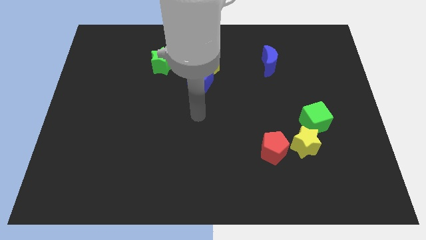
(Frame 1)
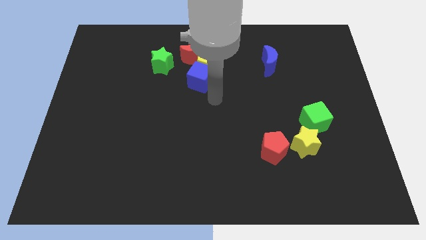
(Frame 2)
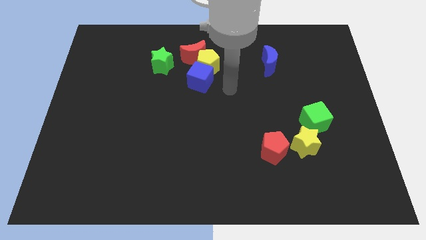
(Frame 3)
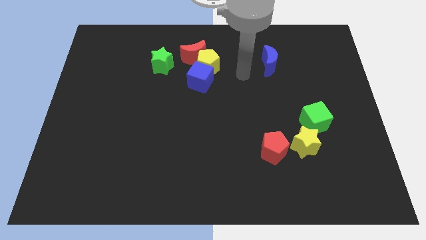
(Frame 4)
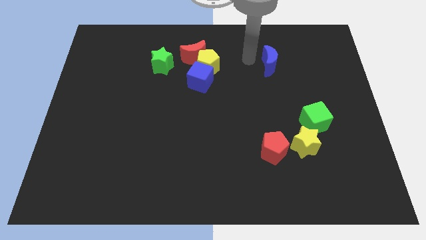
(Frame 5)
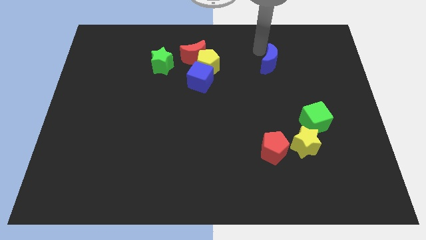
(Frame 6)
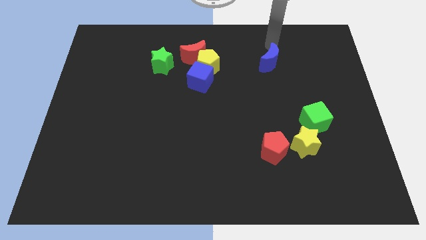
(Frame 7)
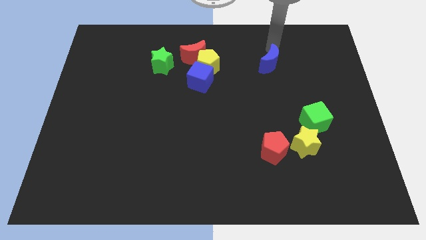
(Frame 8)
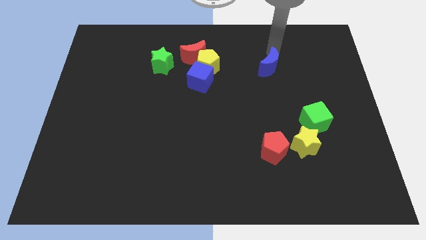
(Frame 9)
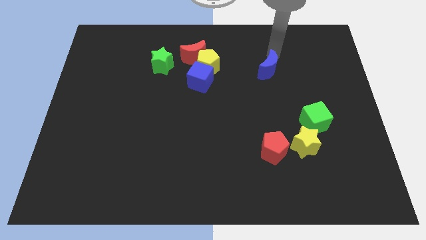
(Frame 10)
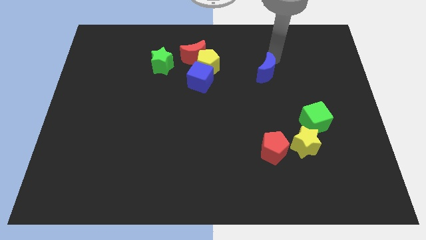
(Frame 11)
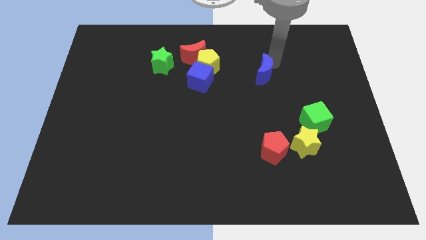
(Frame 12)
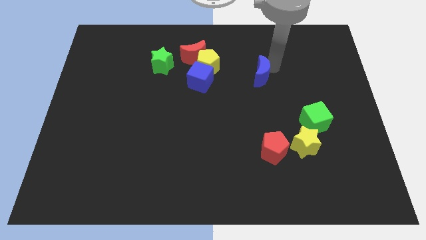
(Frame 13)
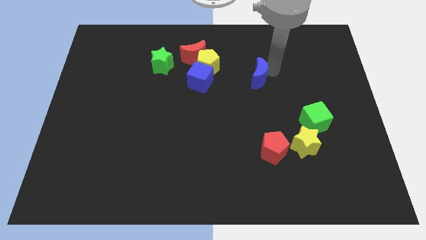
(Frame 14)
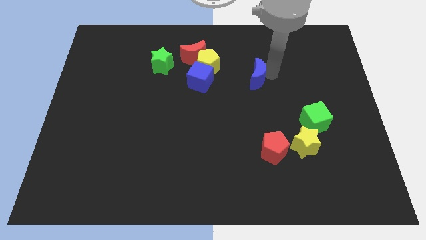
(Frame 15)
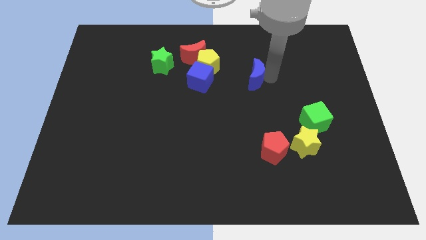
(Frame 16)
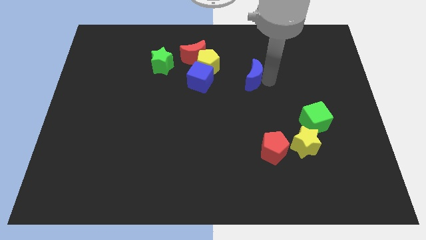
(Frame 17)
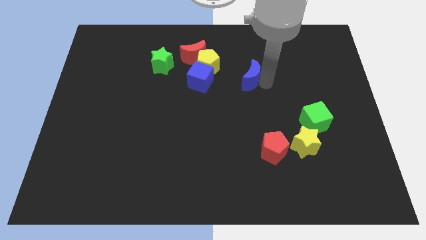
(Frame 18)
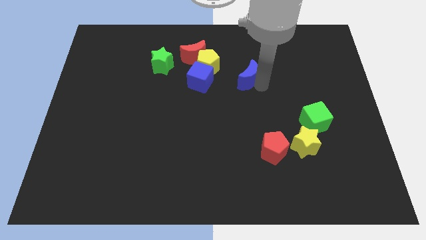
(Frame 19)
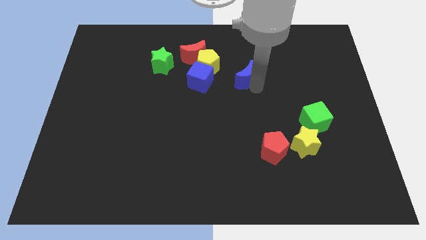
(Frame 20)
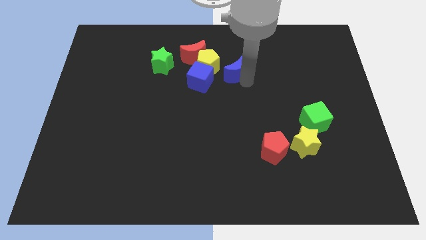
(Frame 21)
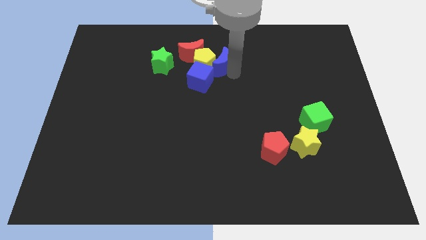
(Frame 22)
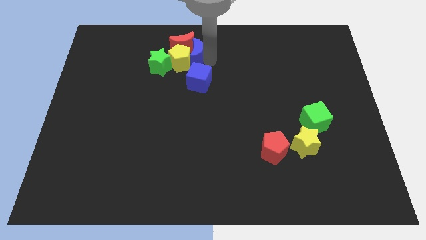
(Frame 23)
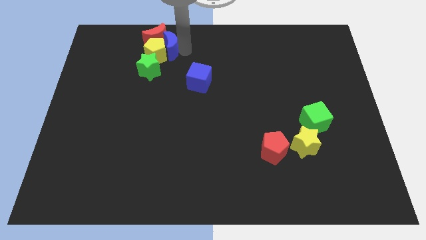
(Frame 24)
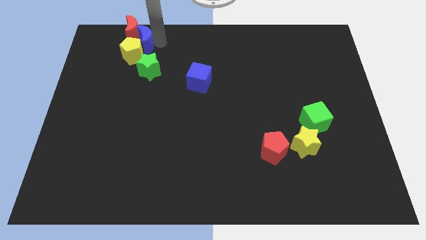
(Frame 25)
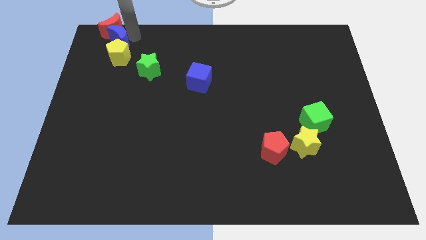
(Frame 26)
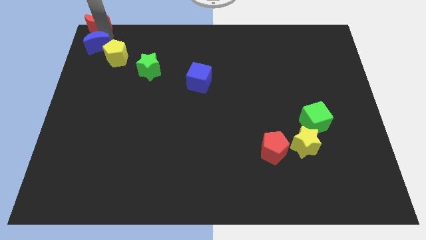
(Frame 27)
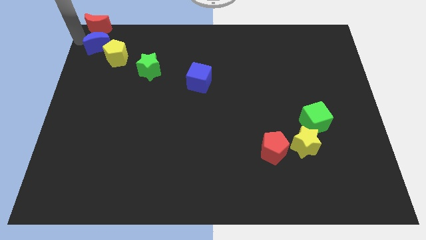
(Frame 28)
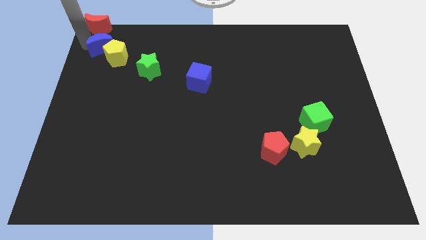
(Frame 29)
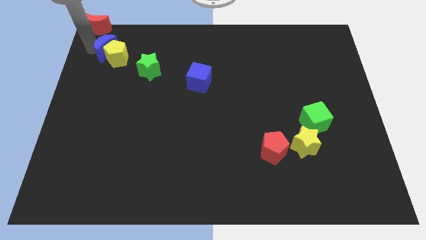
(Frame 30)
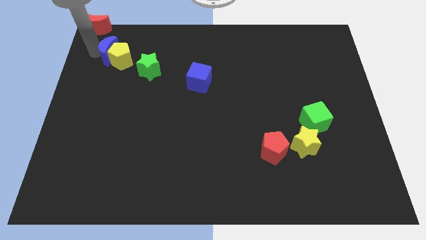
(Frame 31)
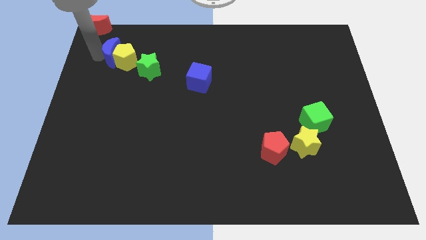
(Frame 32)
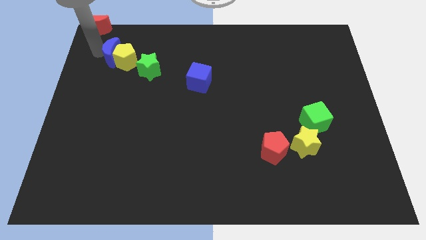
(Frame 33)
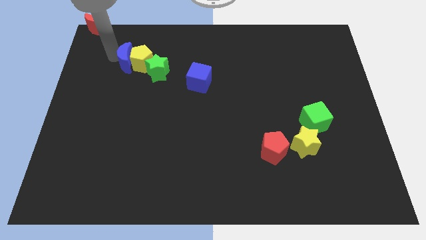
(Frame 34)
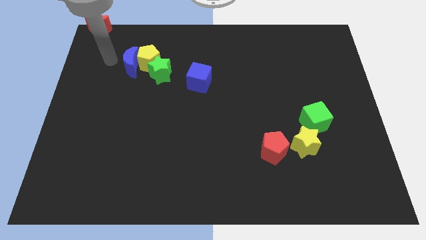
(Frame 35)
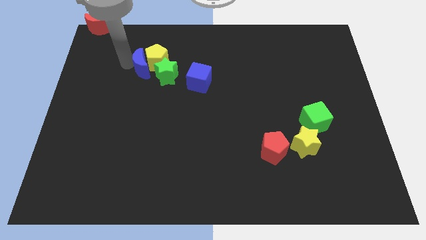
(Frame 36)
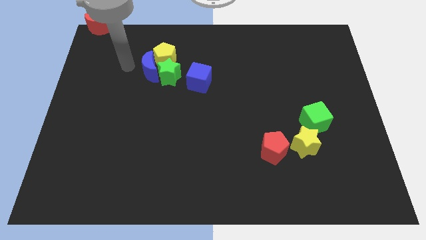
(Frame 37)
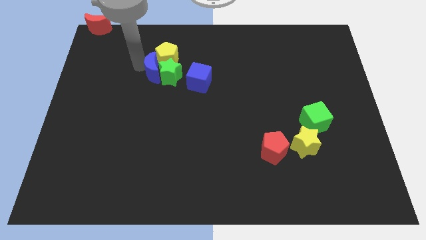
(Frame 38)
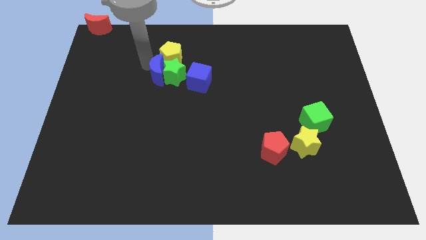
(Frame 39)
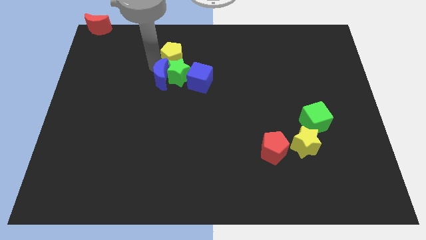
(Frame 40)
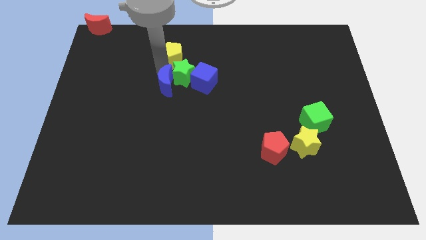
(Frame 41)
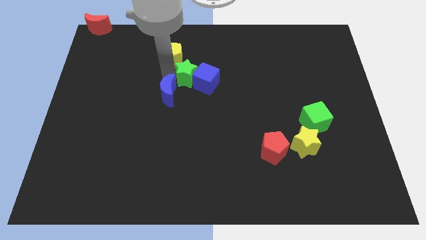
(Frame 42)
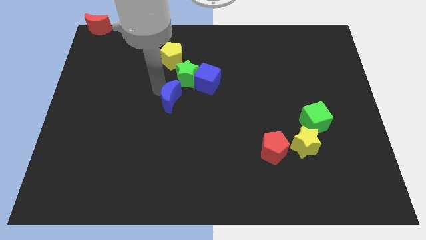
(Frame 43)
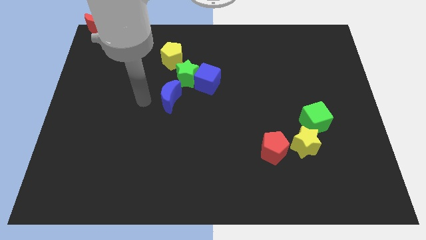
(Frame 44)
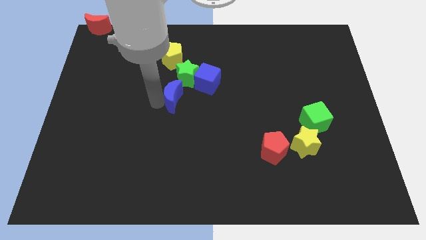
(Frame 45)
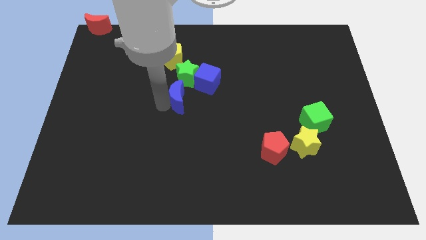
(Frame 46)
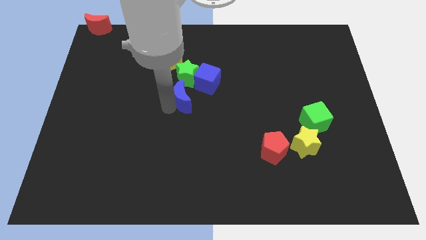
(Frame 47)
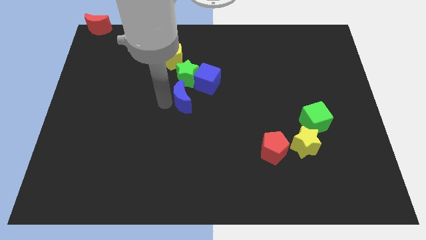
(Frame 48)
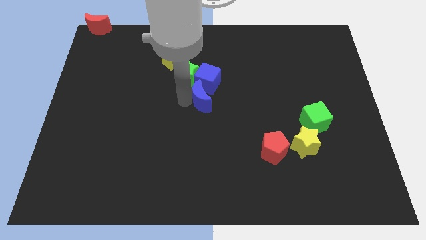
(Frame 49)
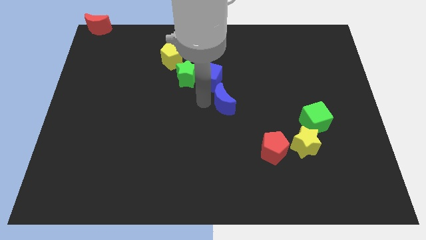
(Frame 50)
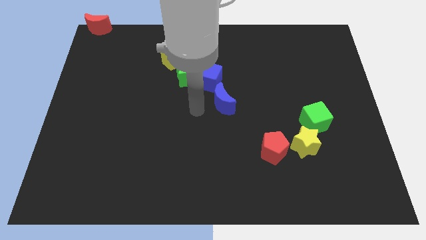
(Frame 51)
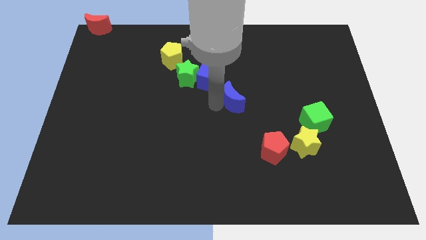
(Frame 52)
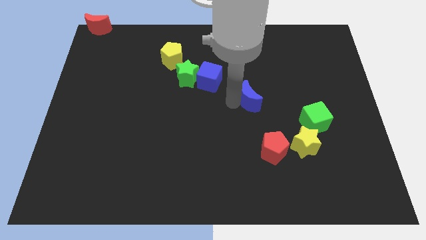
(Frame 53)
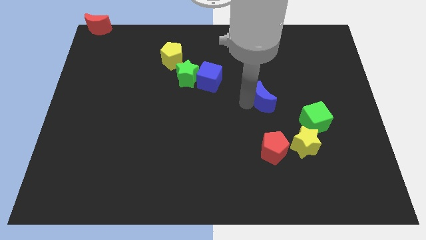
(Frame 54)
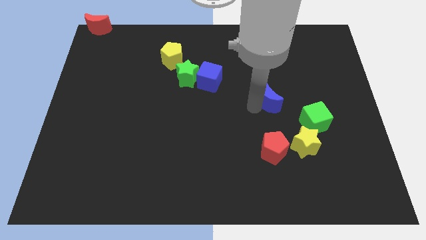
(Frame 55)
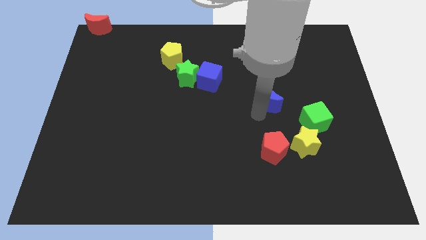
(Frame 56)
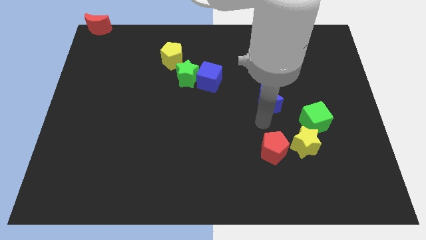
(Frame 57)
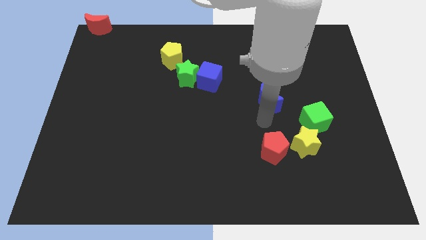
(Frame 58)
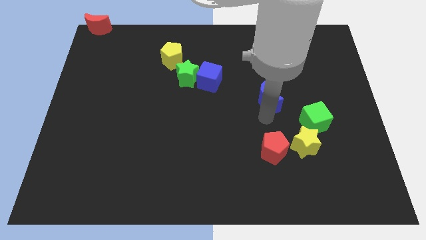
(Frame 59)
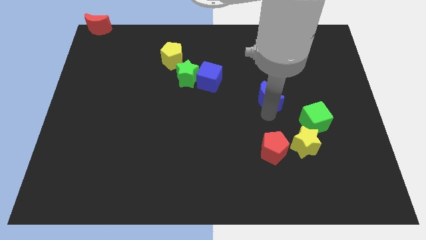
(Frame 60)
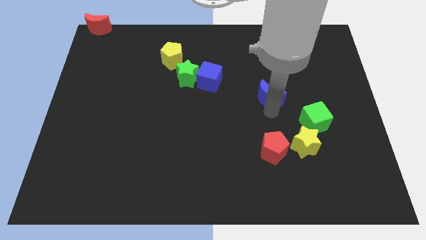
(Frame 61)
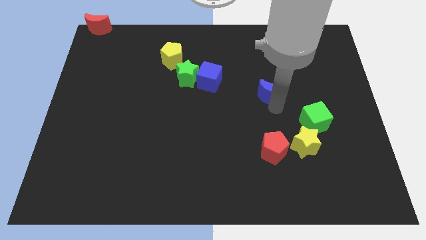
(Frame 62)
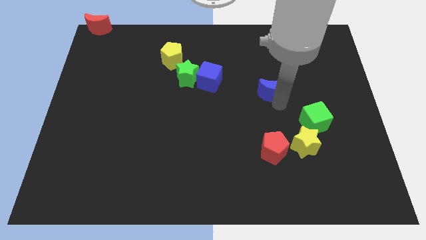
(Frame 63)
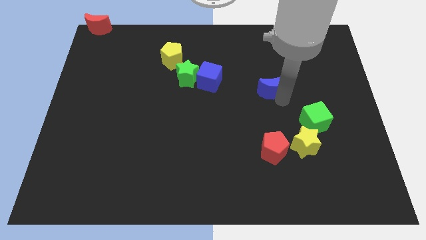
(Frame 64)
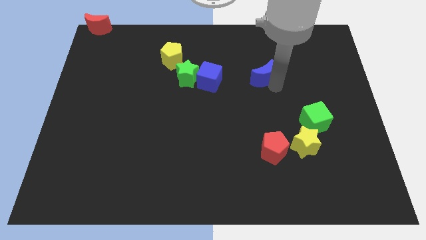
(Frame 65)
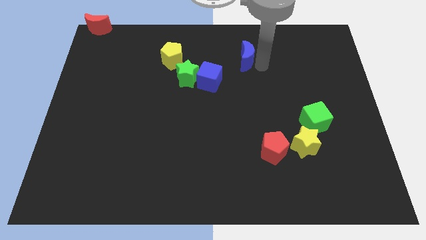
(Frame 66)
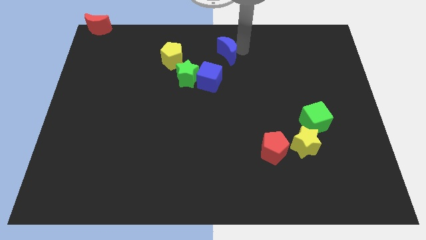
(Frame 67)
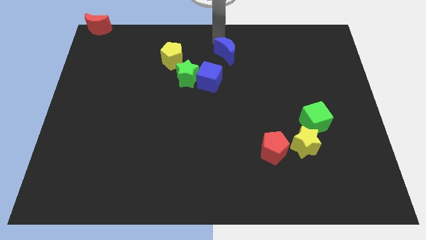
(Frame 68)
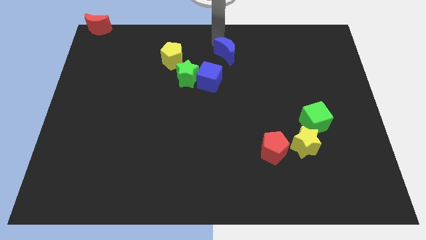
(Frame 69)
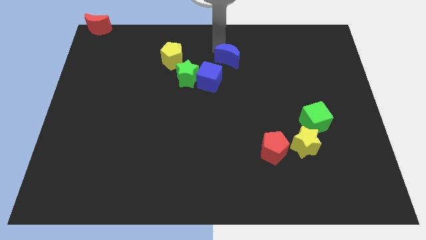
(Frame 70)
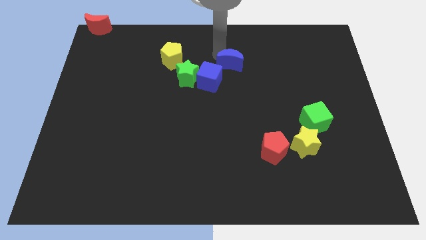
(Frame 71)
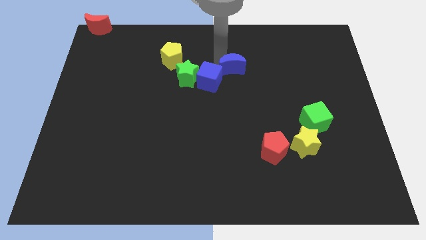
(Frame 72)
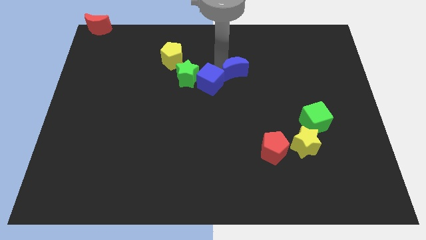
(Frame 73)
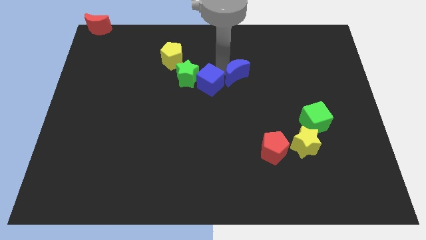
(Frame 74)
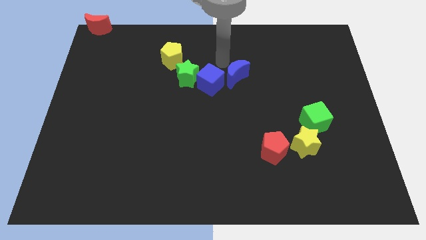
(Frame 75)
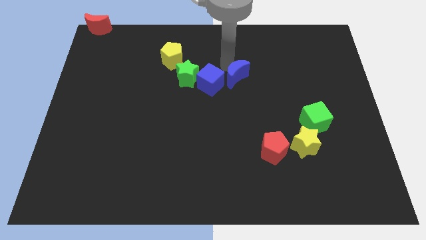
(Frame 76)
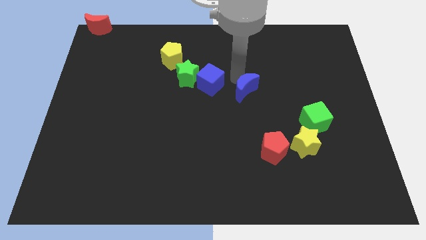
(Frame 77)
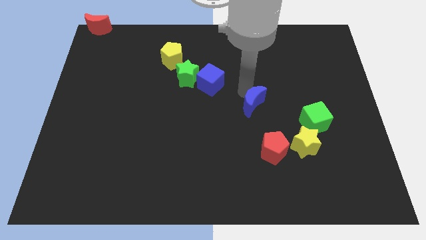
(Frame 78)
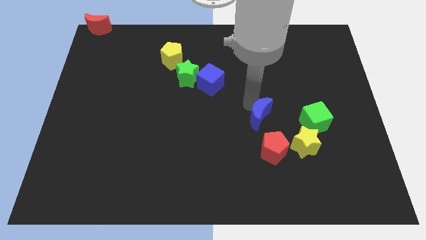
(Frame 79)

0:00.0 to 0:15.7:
move the blue moon to the top left of the yellow star
